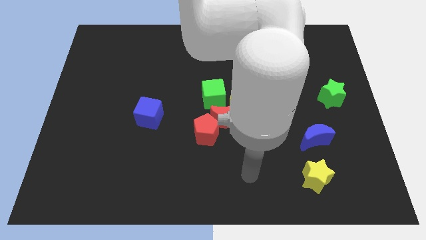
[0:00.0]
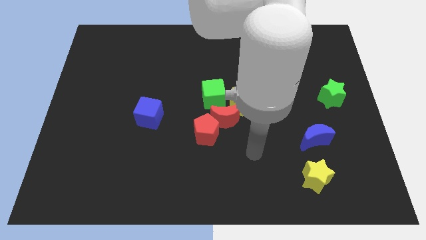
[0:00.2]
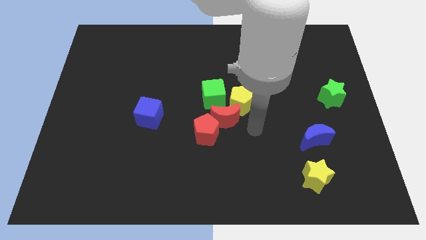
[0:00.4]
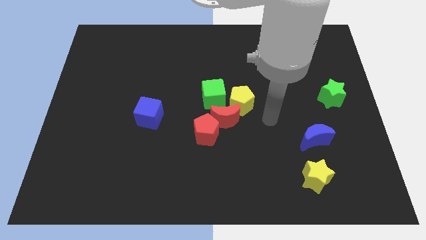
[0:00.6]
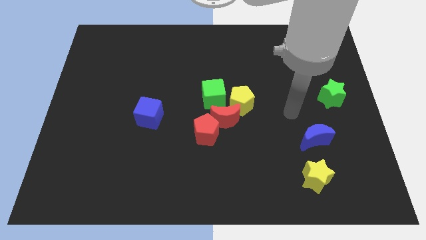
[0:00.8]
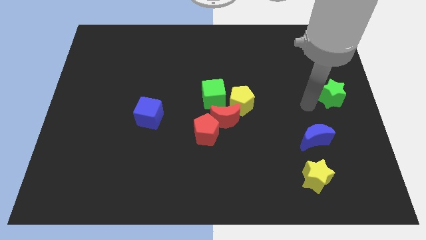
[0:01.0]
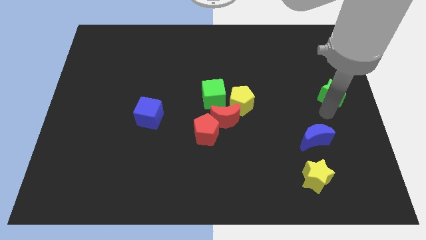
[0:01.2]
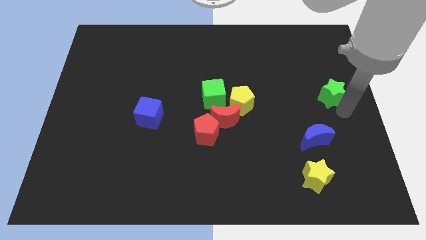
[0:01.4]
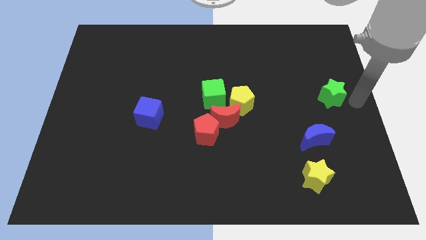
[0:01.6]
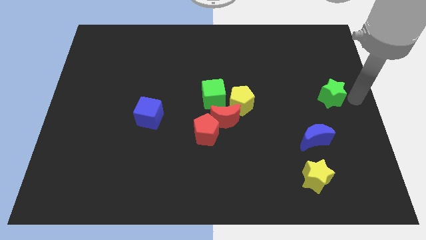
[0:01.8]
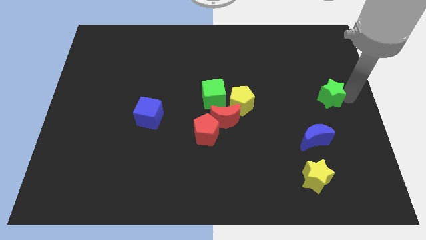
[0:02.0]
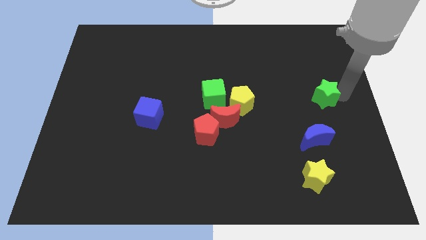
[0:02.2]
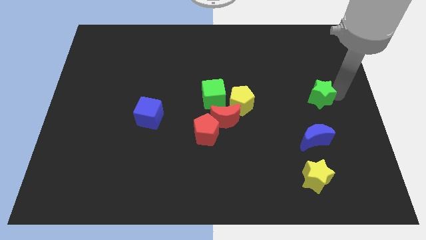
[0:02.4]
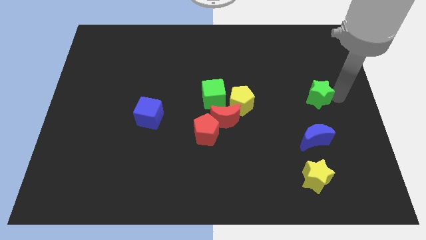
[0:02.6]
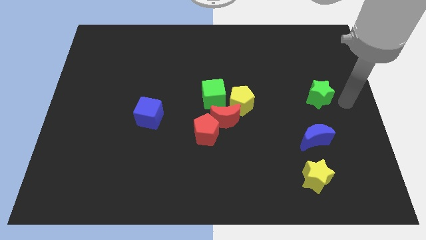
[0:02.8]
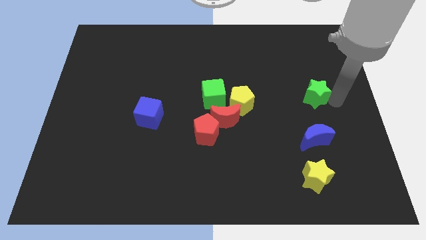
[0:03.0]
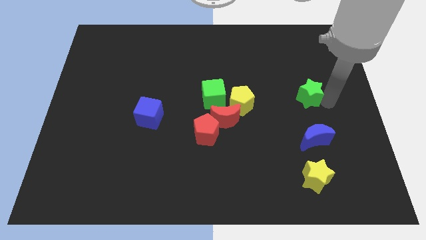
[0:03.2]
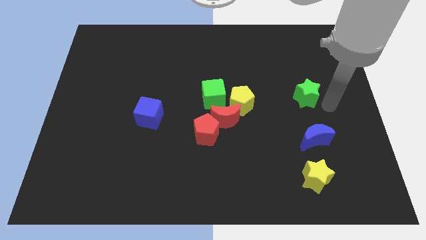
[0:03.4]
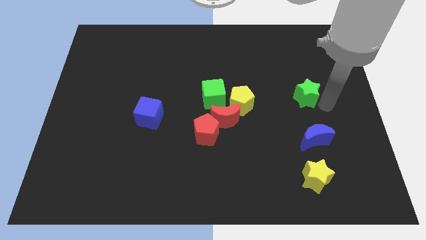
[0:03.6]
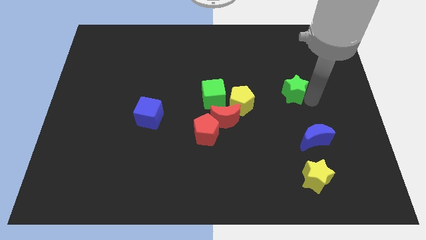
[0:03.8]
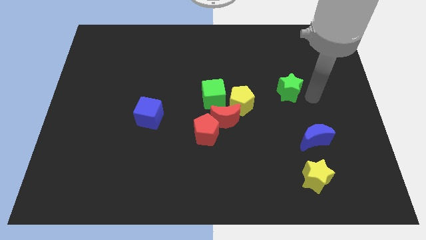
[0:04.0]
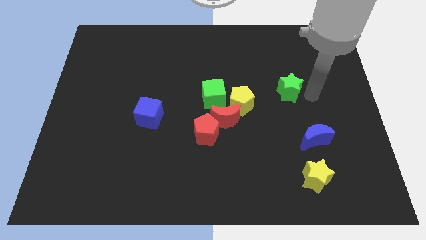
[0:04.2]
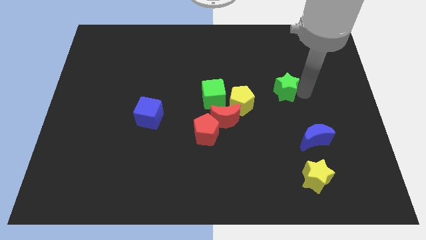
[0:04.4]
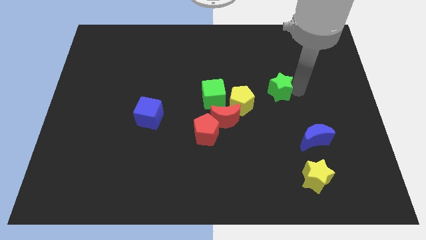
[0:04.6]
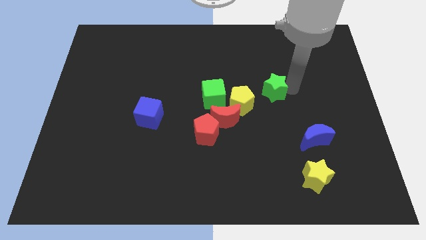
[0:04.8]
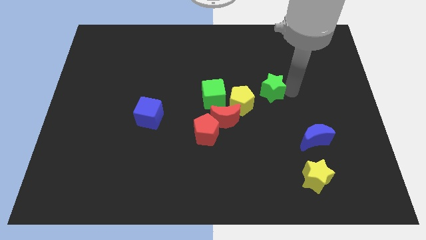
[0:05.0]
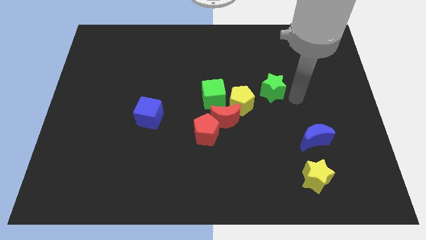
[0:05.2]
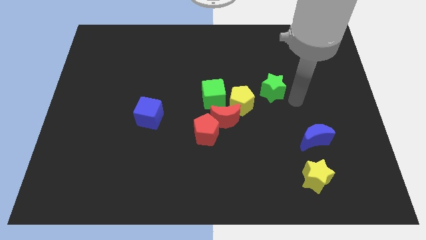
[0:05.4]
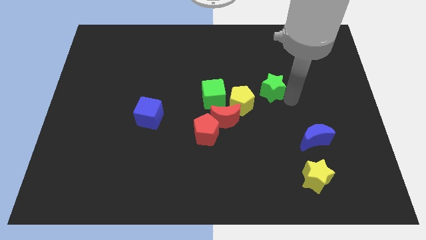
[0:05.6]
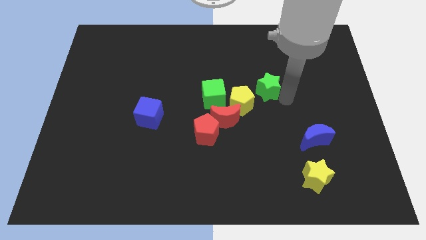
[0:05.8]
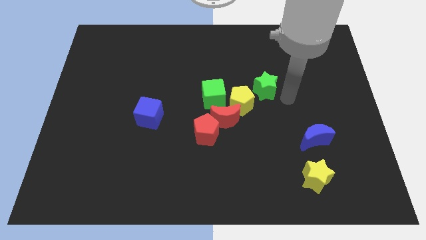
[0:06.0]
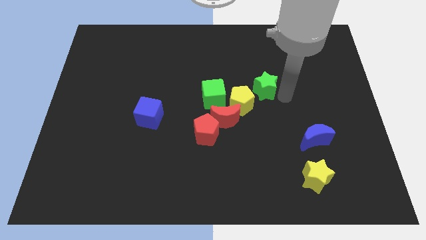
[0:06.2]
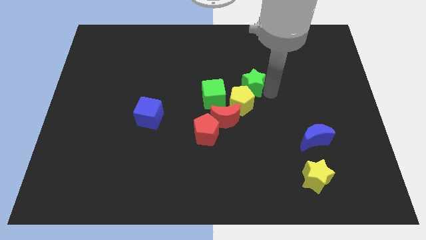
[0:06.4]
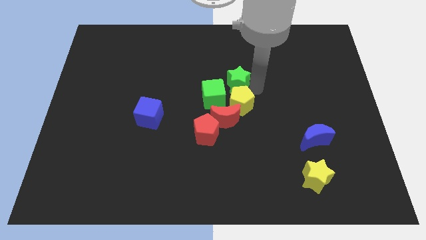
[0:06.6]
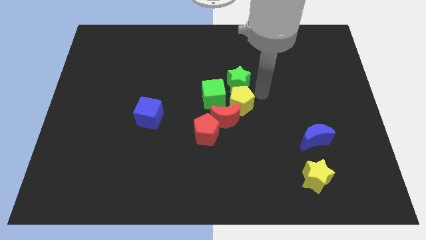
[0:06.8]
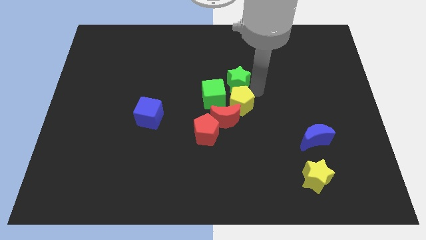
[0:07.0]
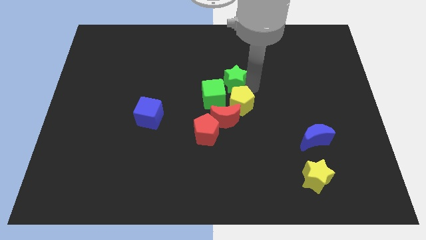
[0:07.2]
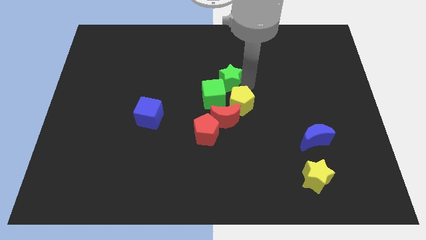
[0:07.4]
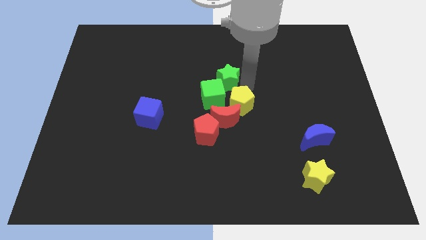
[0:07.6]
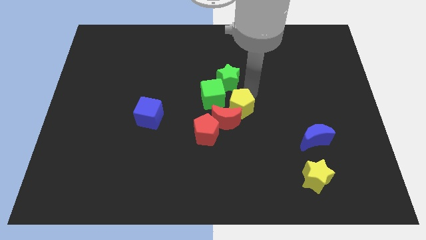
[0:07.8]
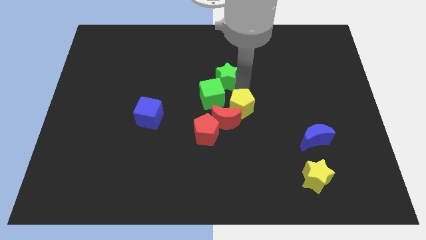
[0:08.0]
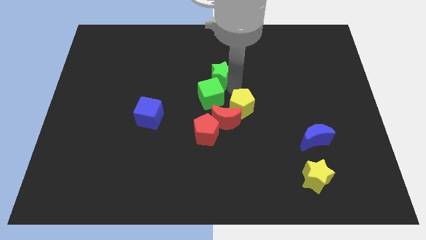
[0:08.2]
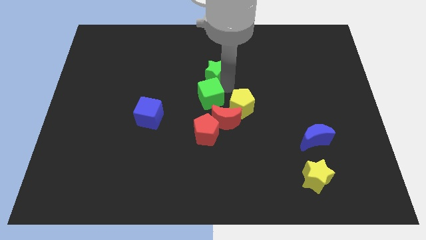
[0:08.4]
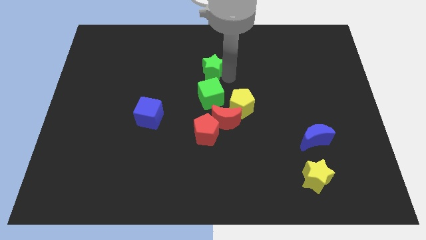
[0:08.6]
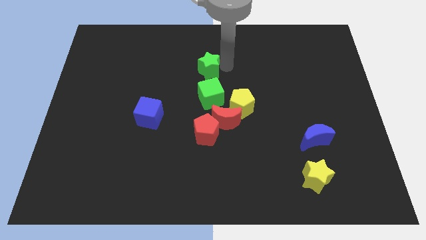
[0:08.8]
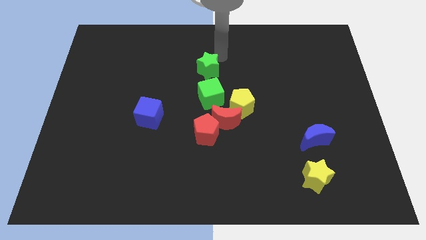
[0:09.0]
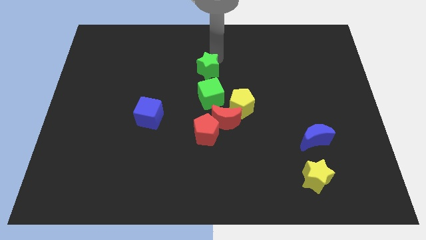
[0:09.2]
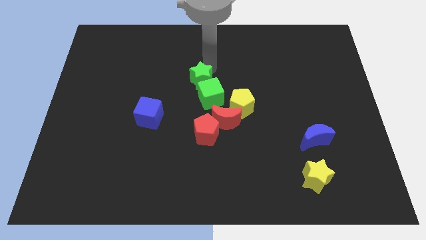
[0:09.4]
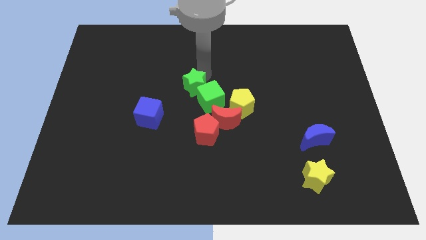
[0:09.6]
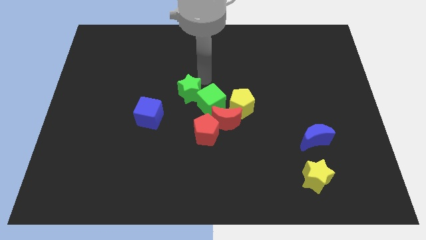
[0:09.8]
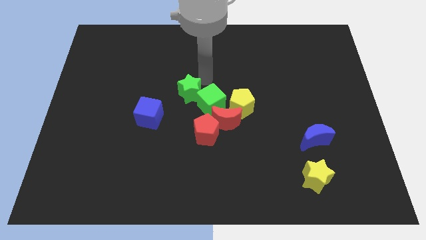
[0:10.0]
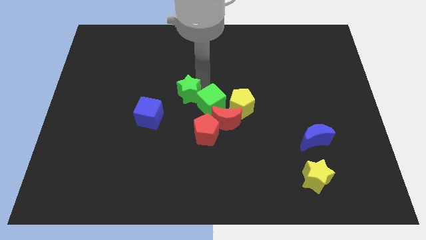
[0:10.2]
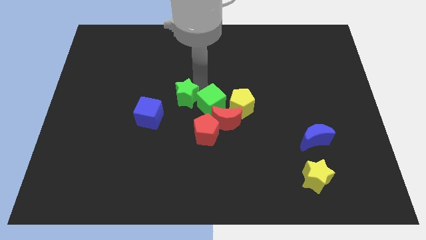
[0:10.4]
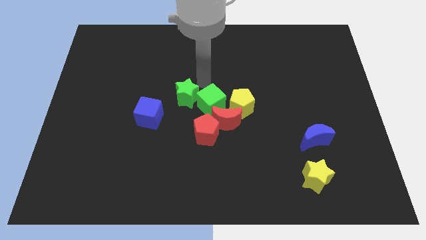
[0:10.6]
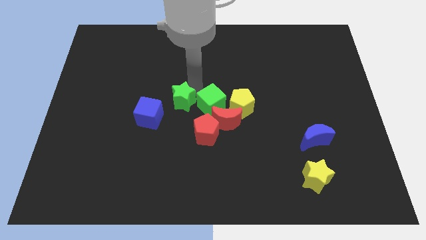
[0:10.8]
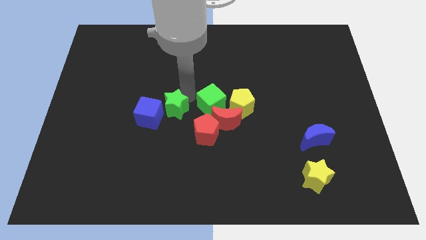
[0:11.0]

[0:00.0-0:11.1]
move the green star to the blue cube

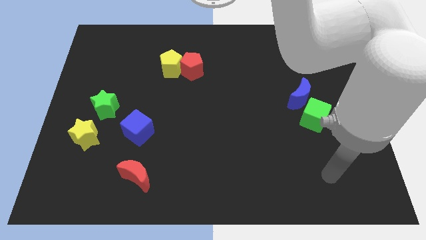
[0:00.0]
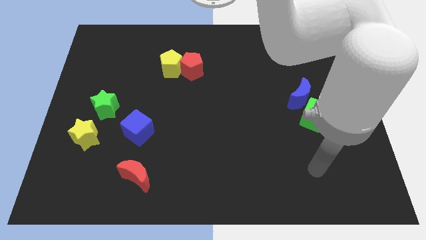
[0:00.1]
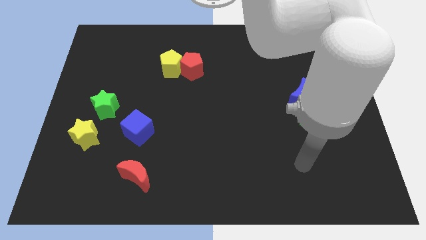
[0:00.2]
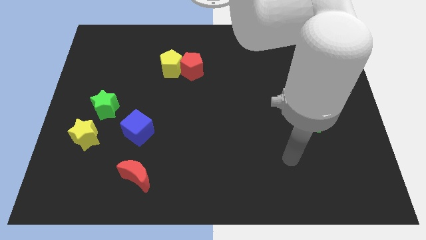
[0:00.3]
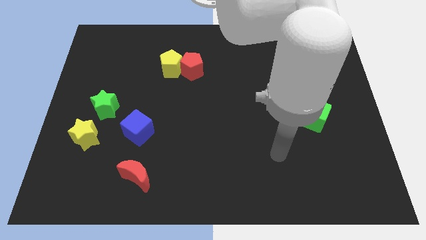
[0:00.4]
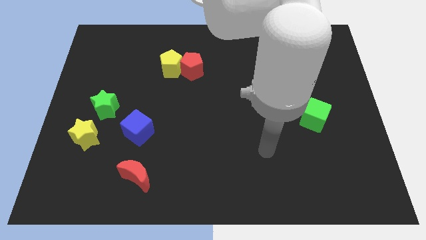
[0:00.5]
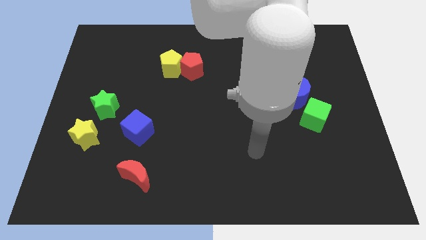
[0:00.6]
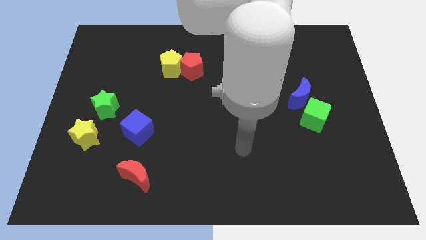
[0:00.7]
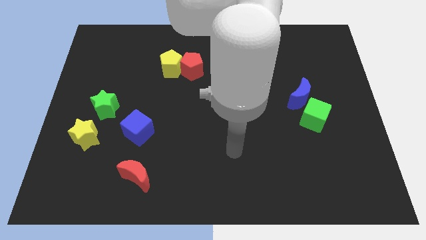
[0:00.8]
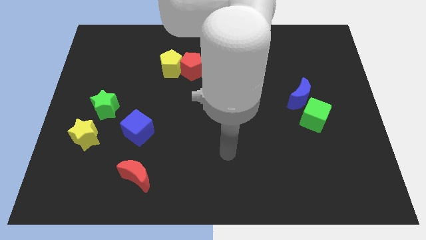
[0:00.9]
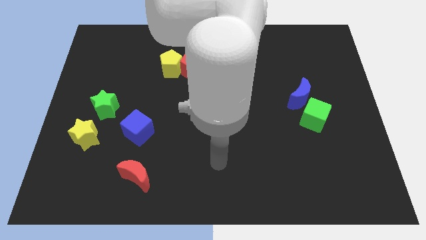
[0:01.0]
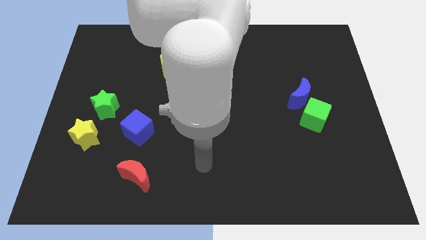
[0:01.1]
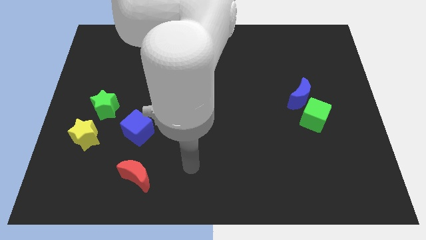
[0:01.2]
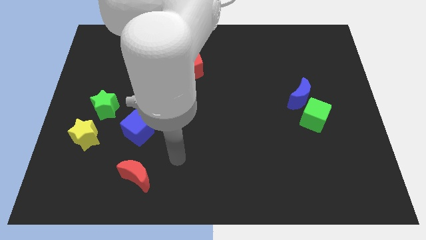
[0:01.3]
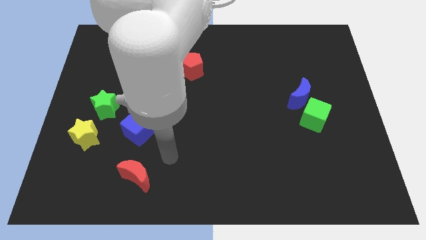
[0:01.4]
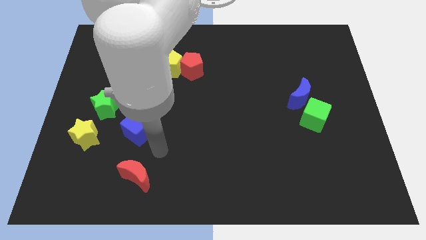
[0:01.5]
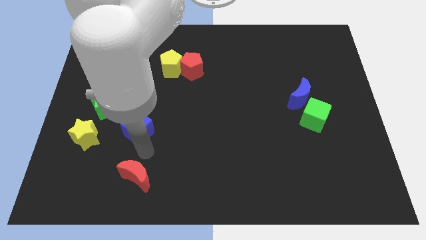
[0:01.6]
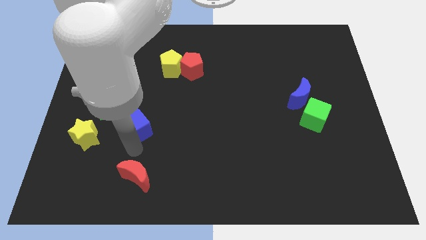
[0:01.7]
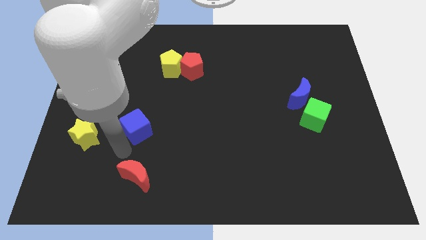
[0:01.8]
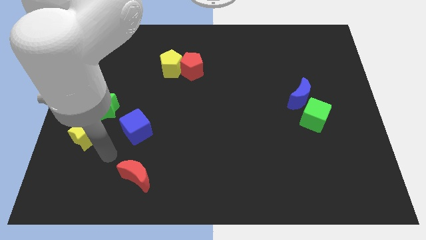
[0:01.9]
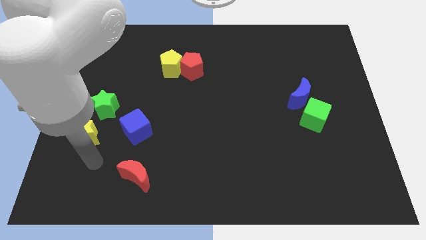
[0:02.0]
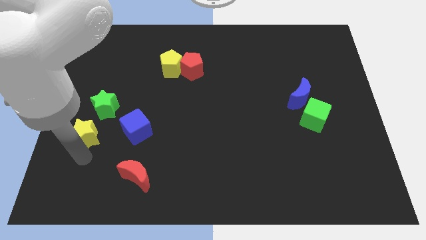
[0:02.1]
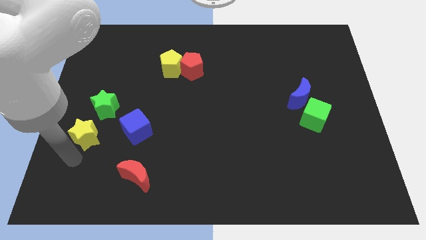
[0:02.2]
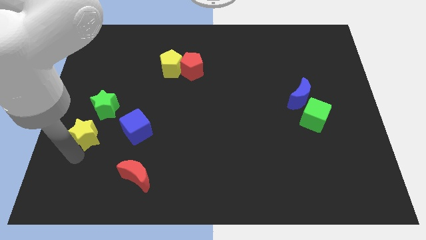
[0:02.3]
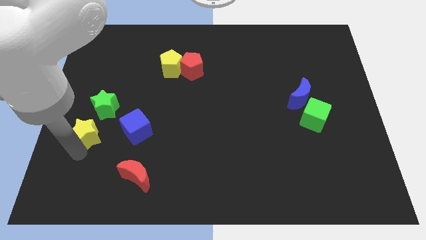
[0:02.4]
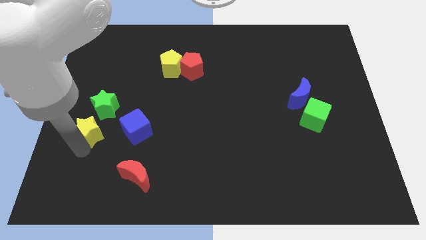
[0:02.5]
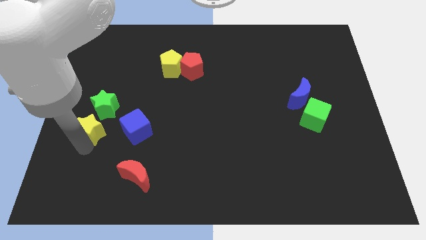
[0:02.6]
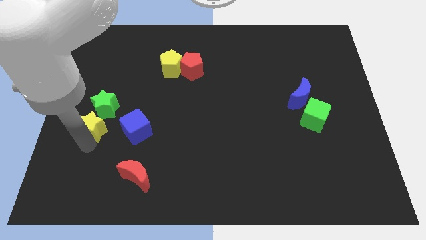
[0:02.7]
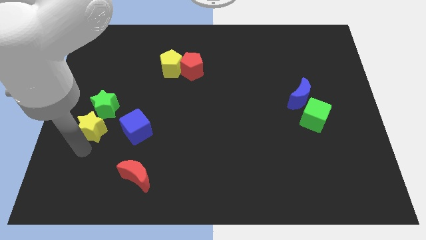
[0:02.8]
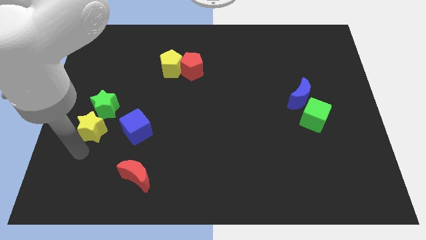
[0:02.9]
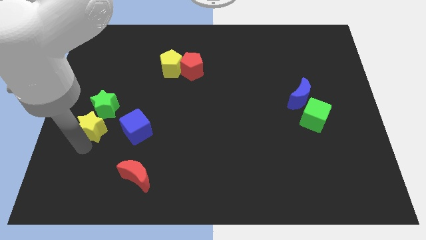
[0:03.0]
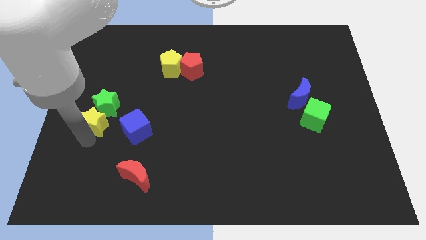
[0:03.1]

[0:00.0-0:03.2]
push the yellow star close to the green star
